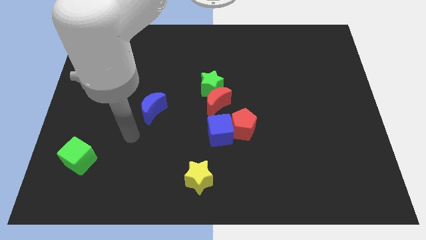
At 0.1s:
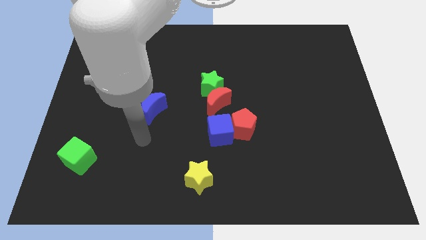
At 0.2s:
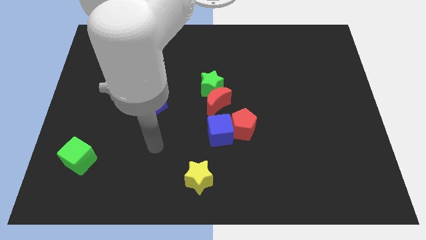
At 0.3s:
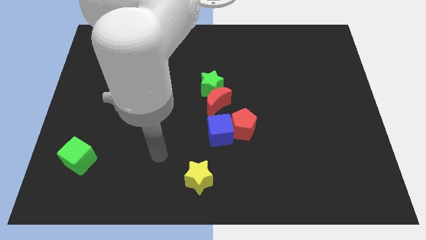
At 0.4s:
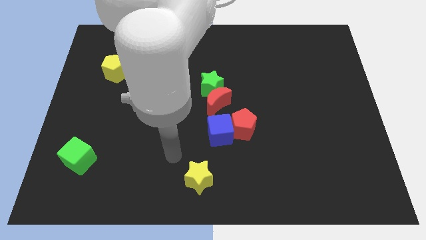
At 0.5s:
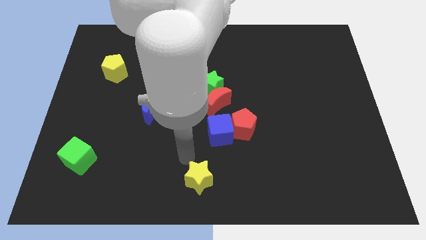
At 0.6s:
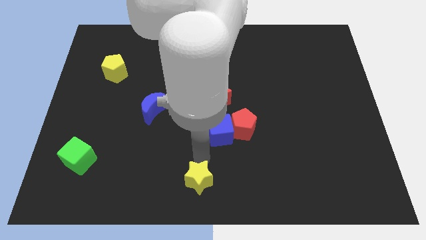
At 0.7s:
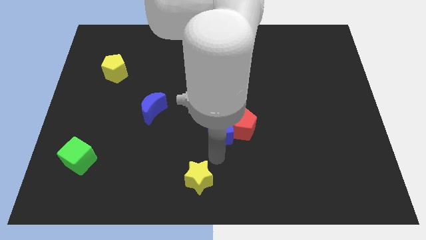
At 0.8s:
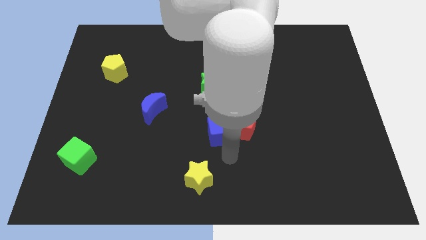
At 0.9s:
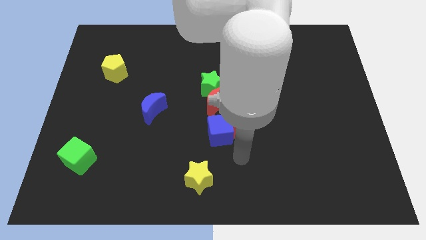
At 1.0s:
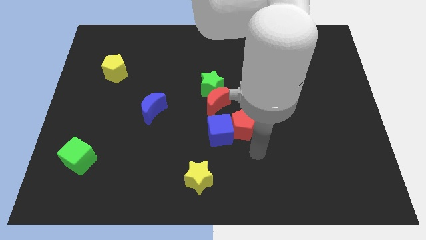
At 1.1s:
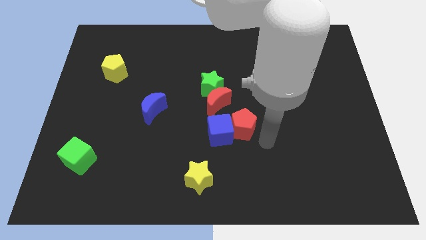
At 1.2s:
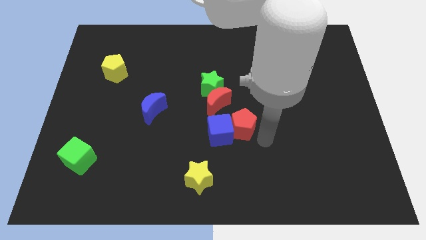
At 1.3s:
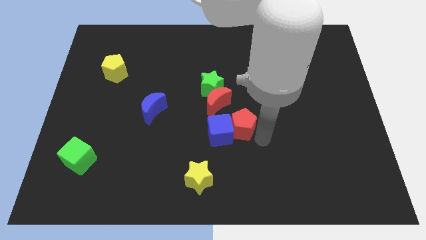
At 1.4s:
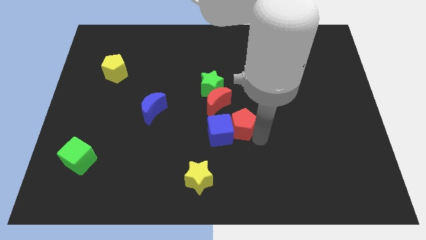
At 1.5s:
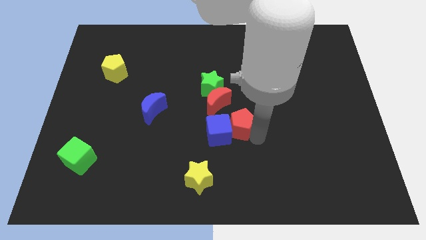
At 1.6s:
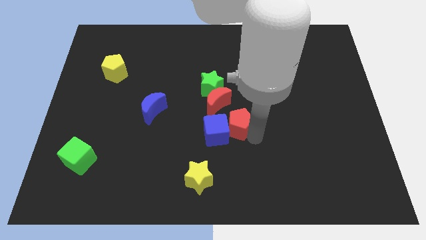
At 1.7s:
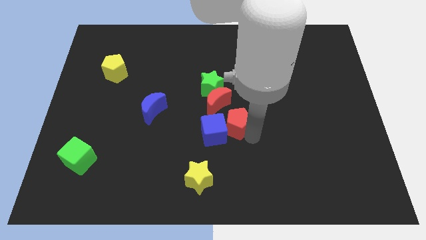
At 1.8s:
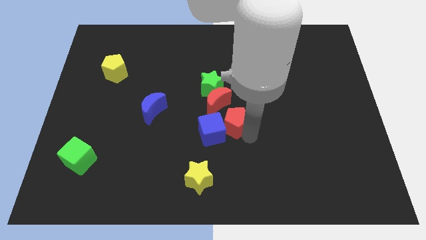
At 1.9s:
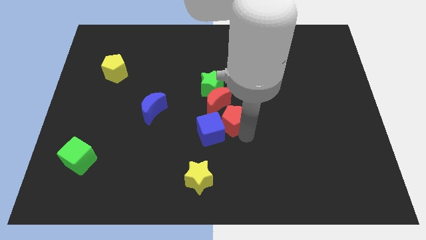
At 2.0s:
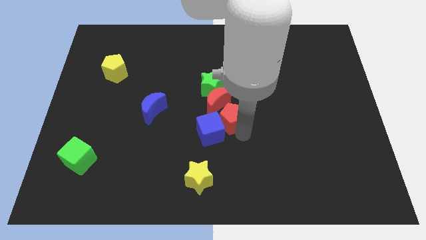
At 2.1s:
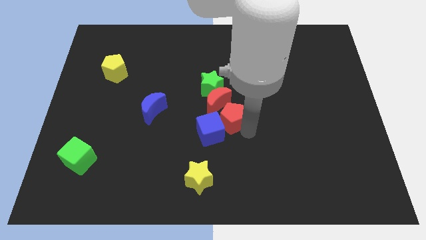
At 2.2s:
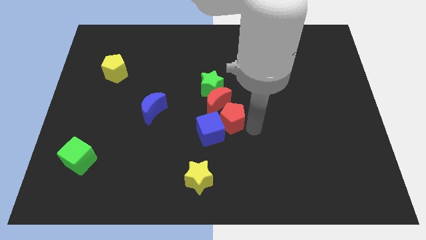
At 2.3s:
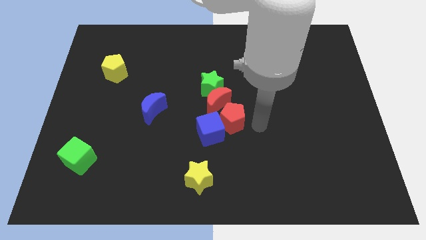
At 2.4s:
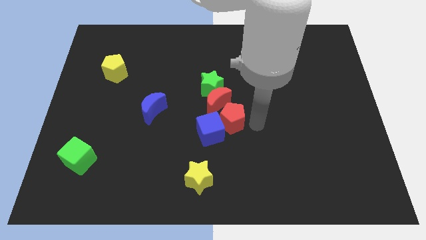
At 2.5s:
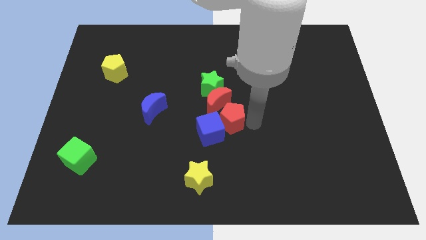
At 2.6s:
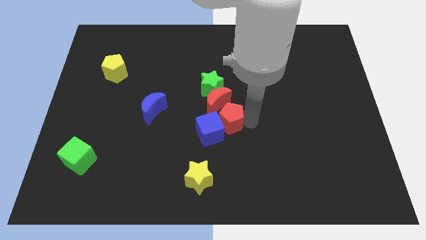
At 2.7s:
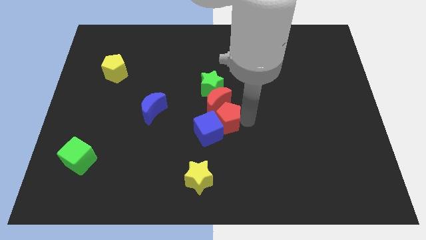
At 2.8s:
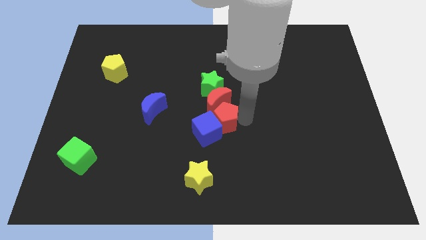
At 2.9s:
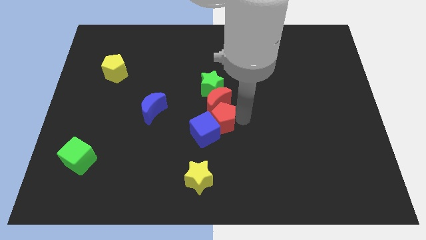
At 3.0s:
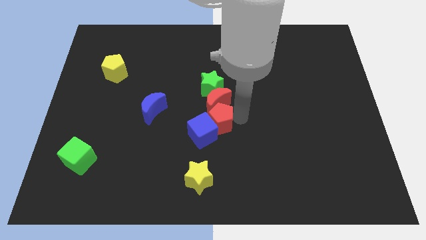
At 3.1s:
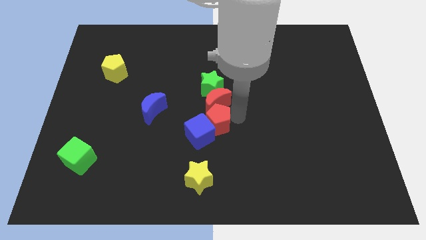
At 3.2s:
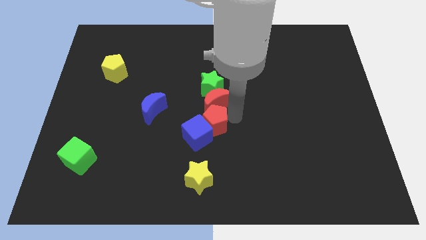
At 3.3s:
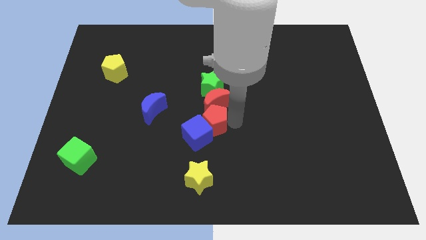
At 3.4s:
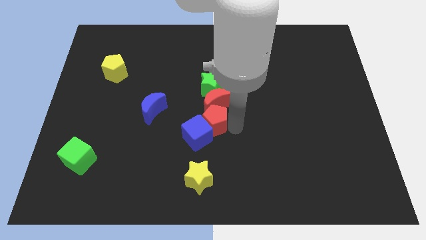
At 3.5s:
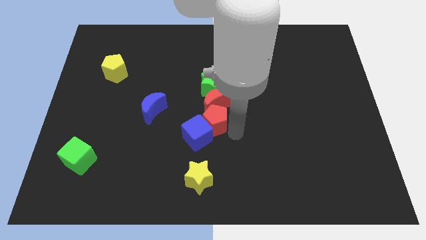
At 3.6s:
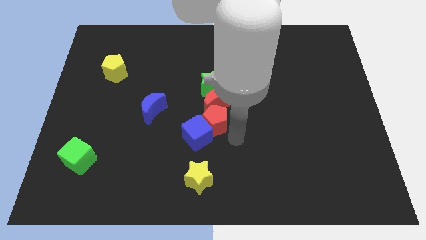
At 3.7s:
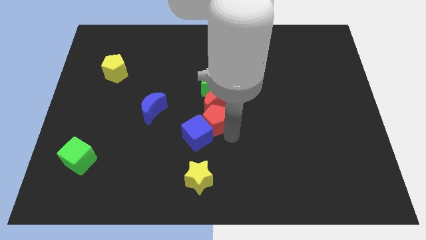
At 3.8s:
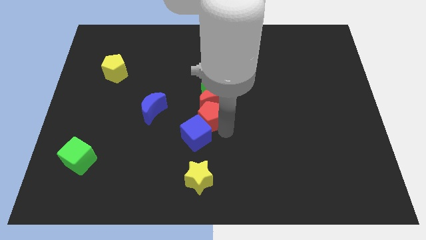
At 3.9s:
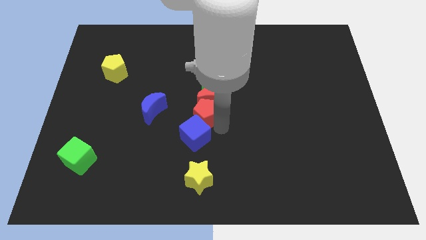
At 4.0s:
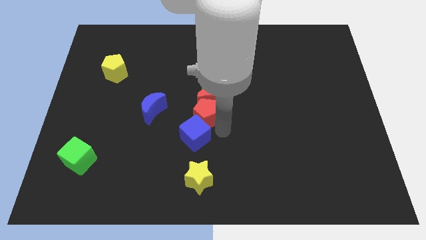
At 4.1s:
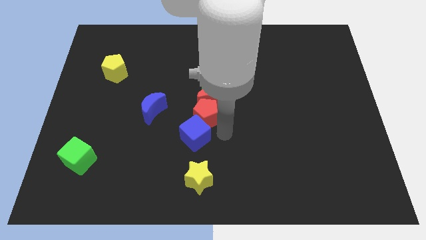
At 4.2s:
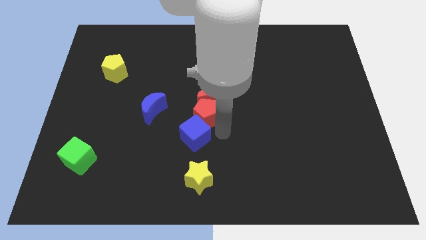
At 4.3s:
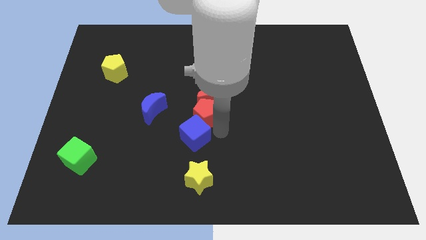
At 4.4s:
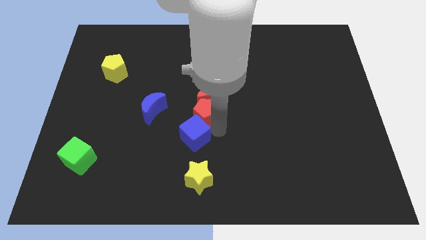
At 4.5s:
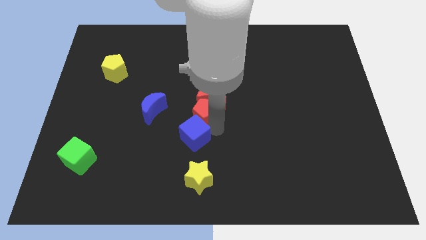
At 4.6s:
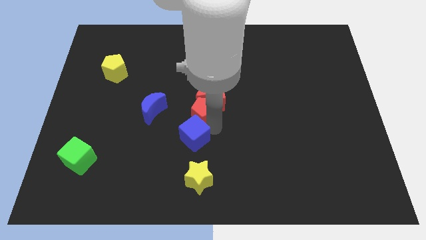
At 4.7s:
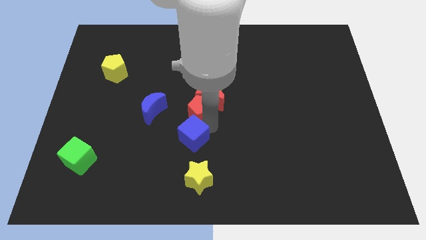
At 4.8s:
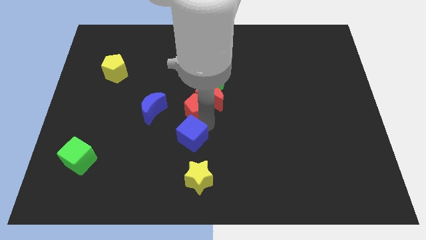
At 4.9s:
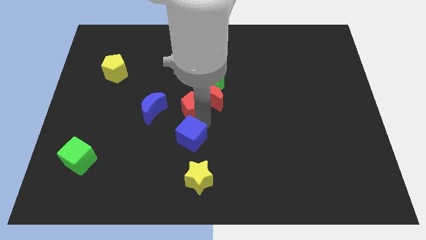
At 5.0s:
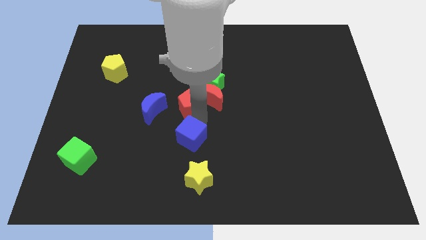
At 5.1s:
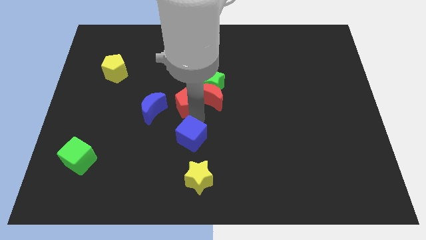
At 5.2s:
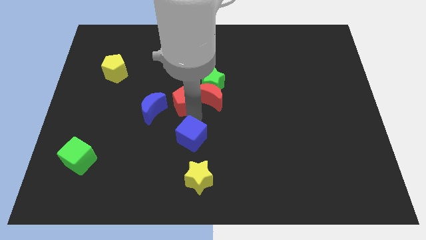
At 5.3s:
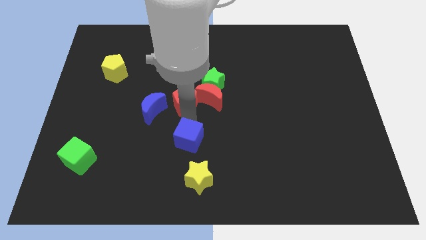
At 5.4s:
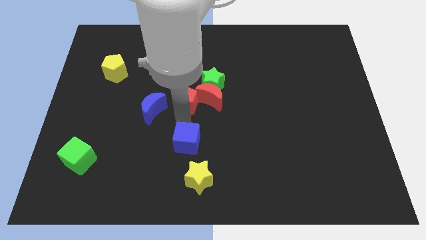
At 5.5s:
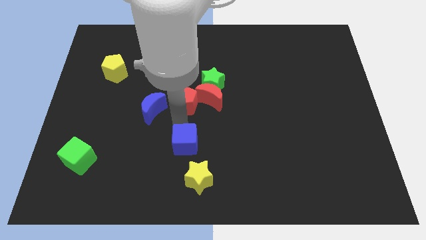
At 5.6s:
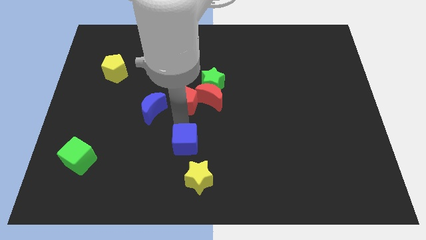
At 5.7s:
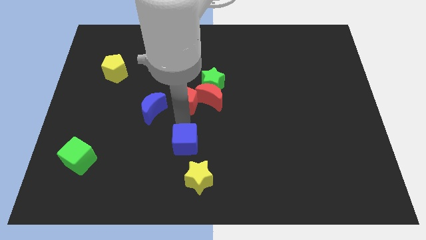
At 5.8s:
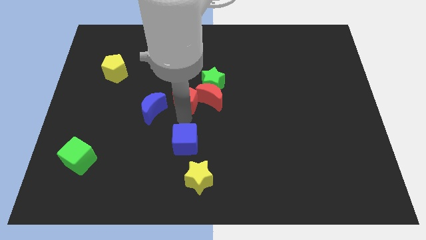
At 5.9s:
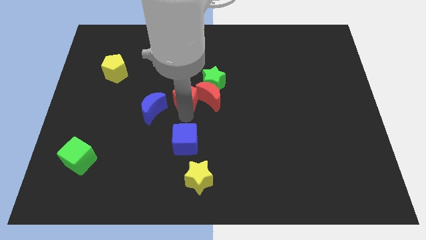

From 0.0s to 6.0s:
push the red pentagon to the top left side of the red moon

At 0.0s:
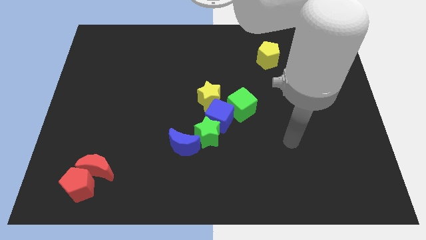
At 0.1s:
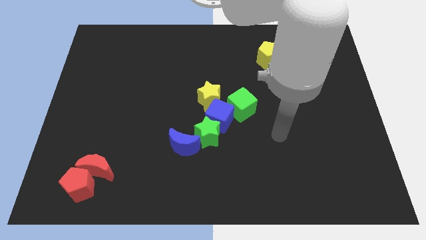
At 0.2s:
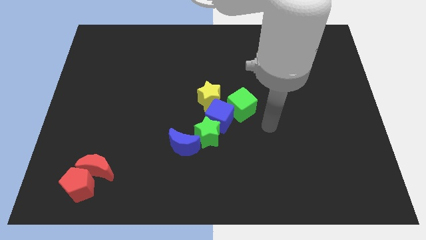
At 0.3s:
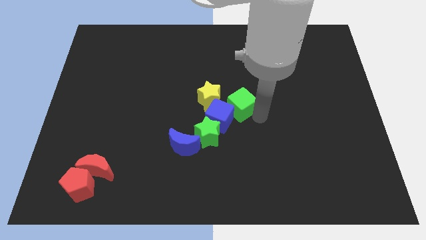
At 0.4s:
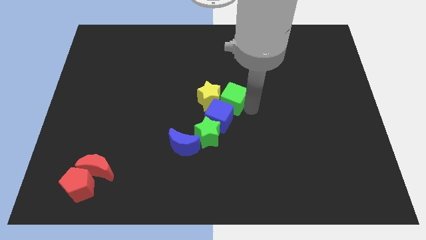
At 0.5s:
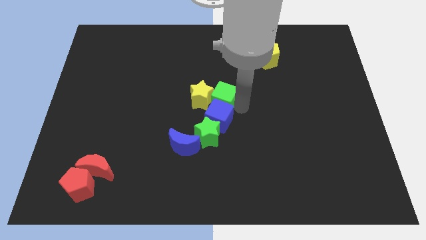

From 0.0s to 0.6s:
push the yellow star to the top side of the blue moon

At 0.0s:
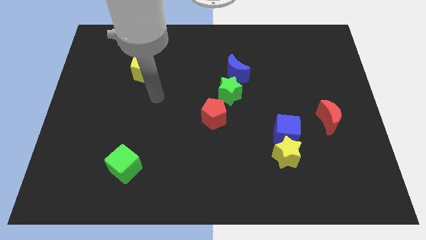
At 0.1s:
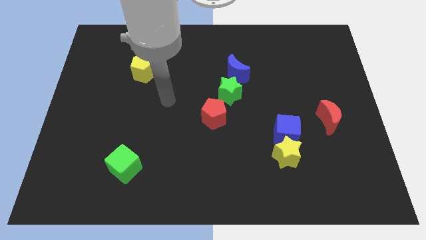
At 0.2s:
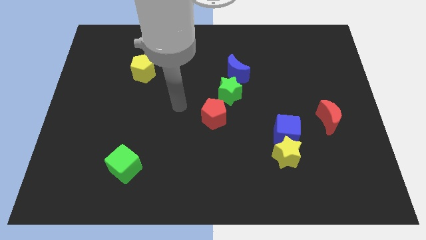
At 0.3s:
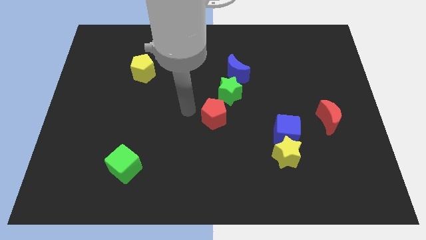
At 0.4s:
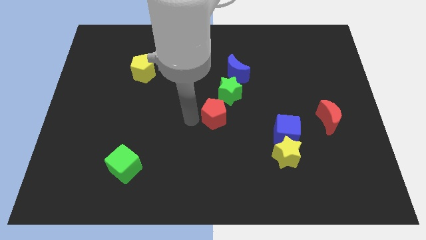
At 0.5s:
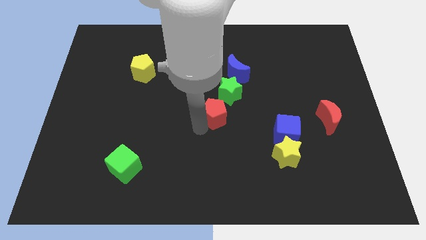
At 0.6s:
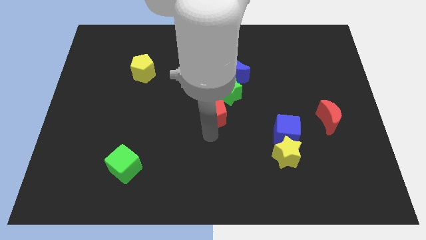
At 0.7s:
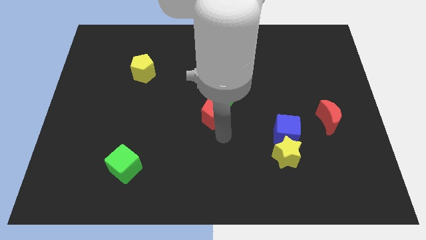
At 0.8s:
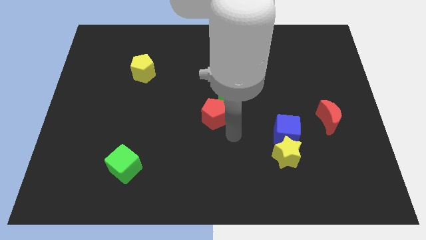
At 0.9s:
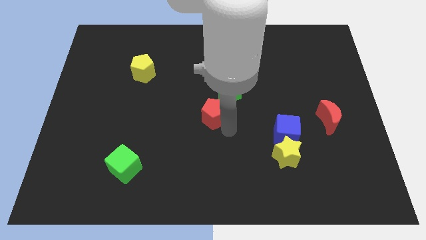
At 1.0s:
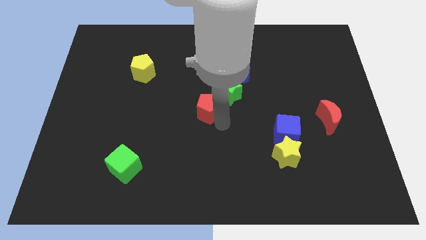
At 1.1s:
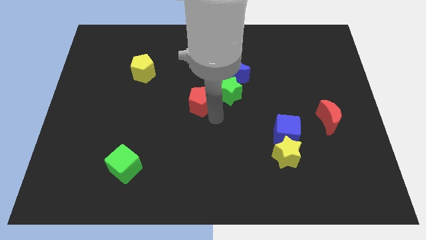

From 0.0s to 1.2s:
move the red pentagon left of the green star
